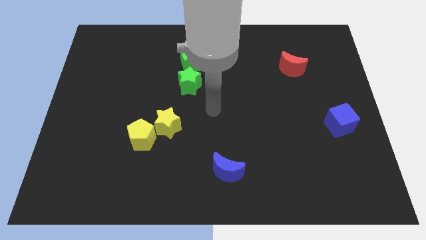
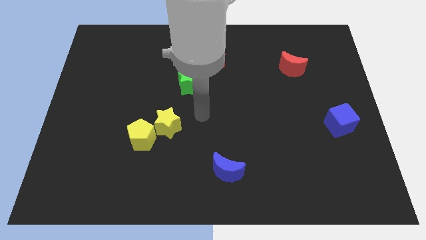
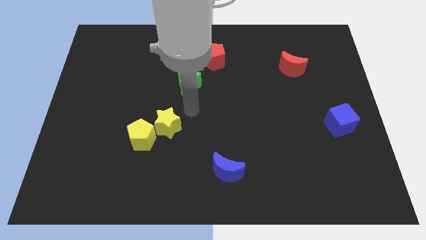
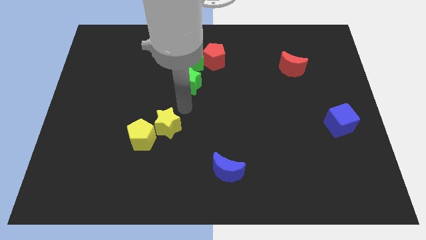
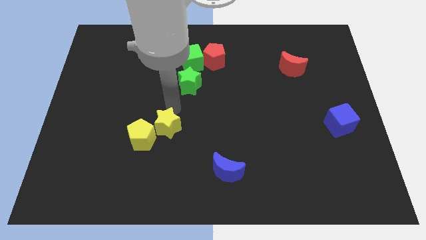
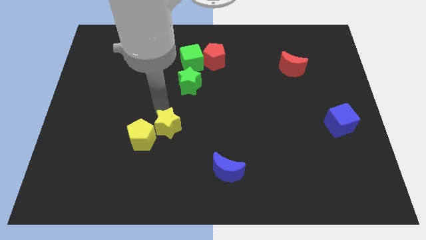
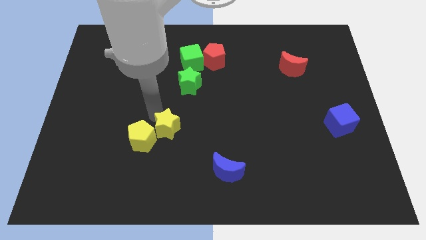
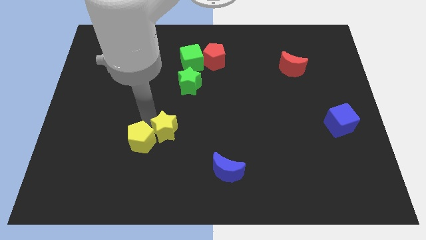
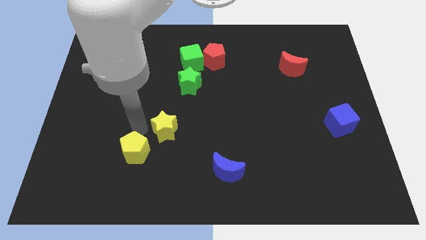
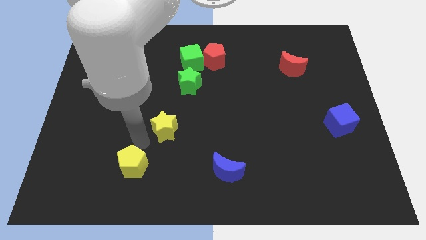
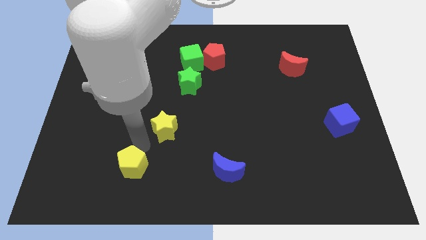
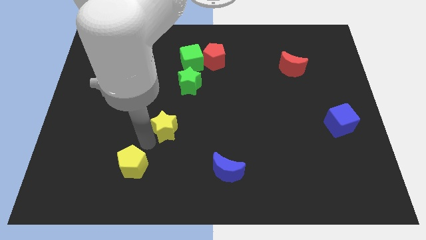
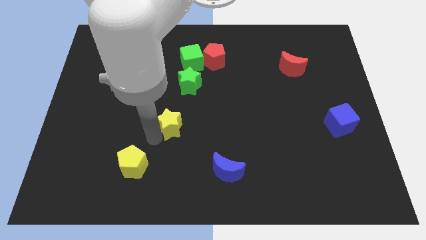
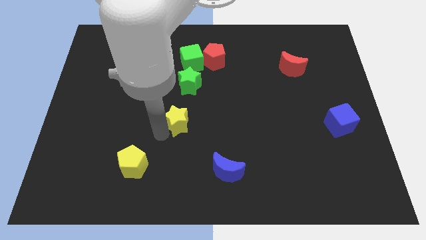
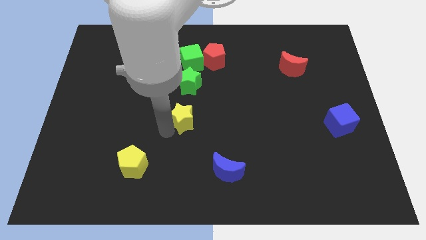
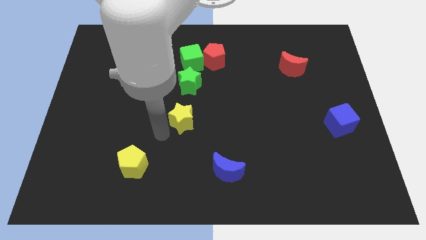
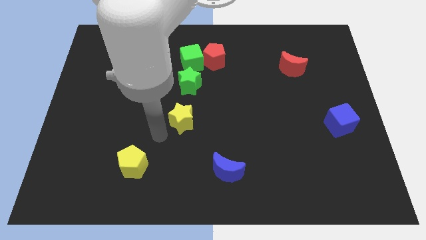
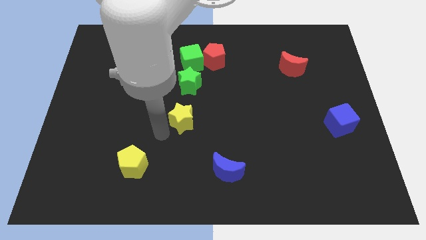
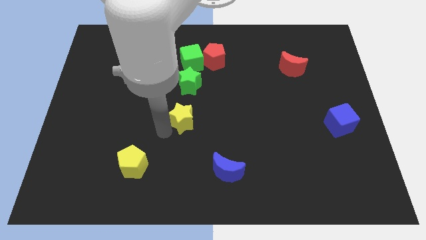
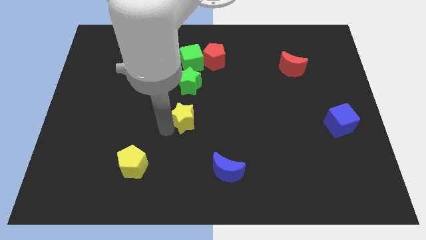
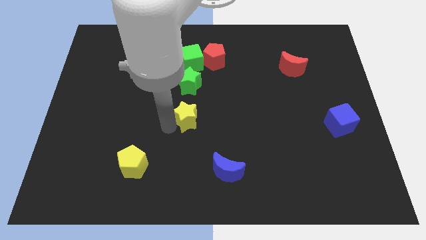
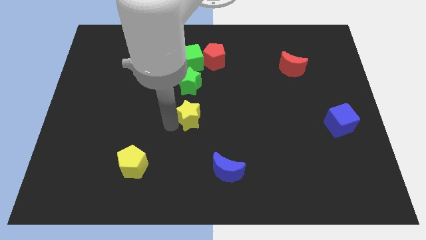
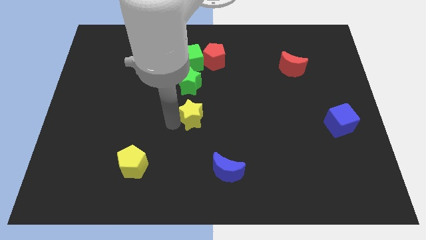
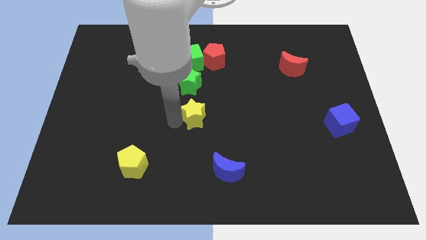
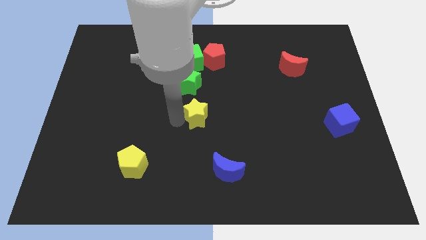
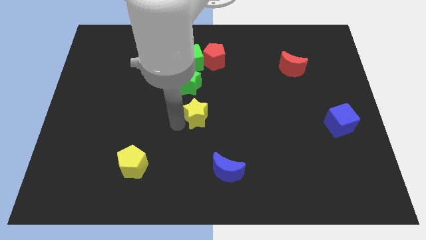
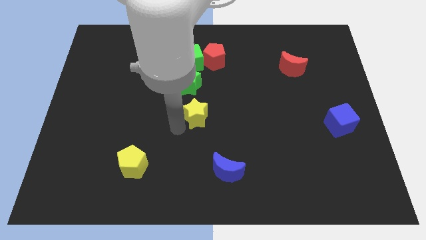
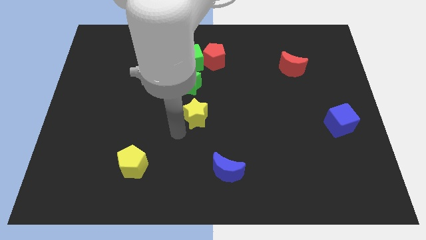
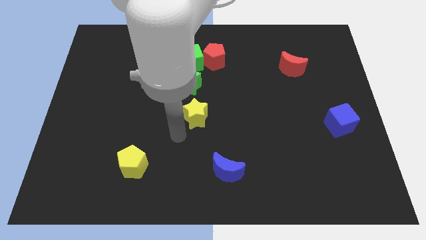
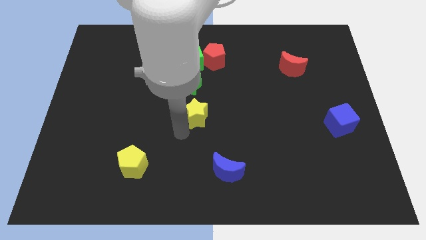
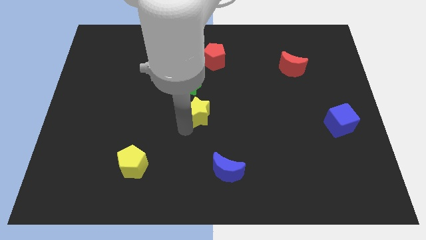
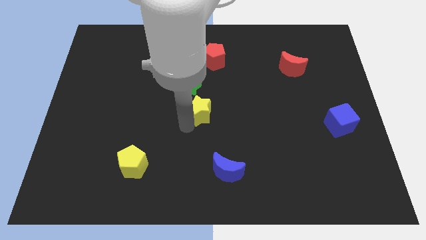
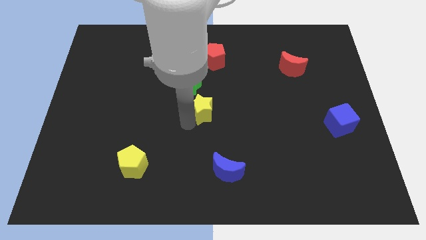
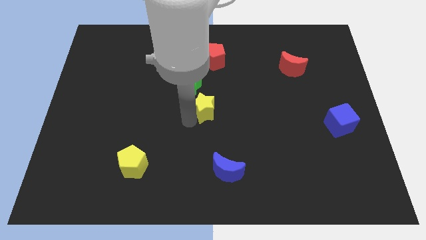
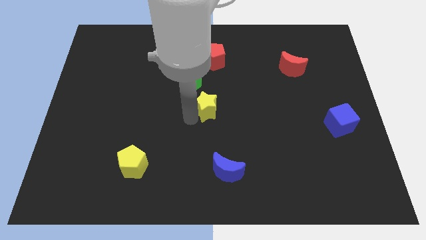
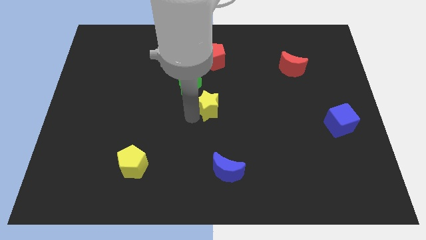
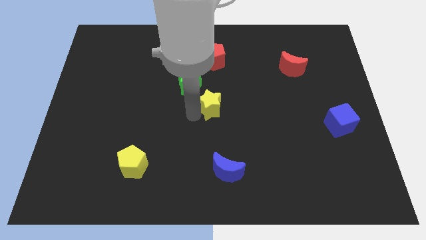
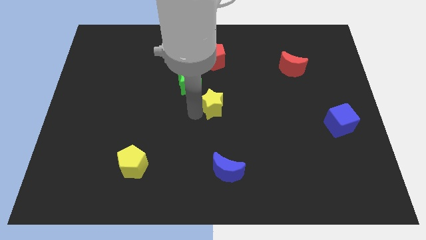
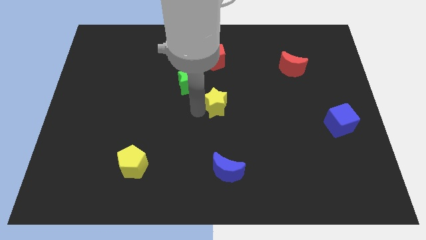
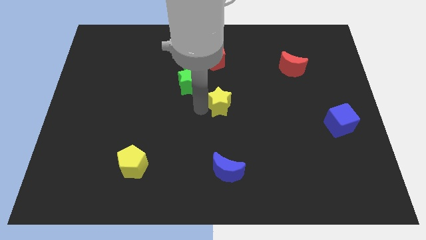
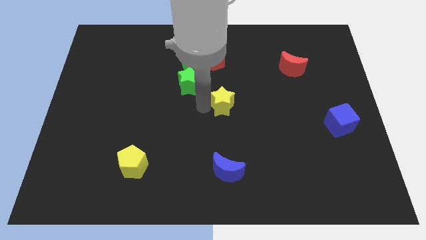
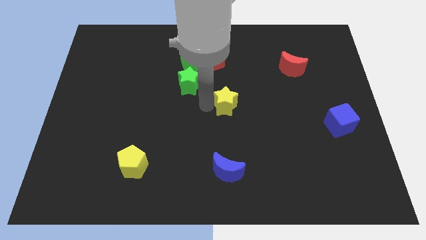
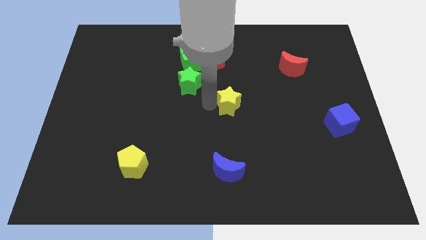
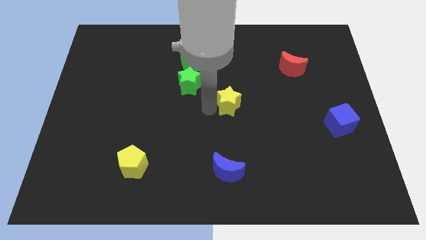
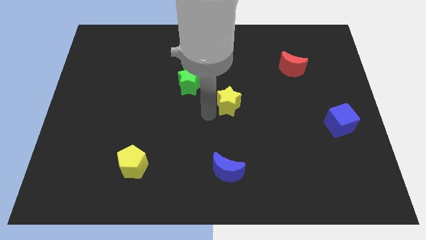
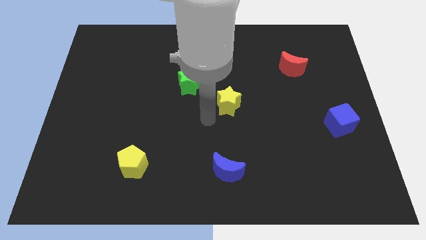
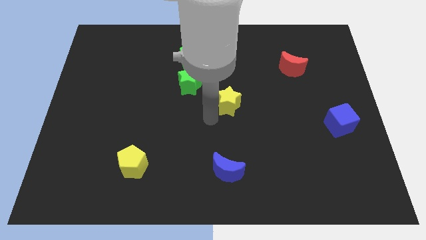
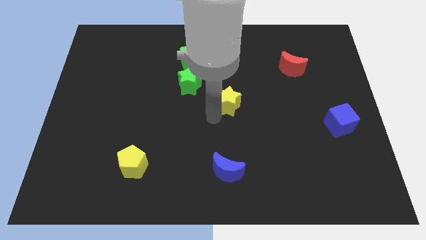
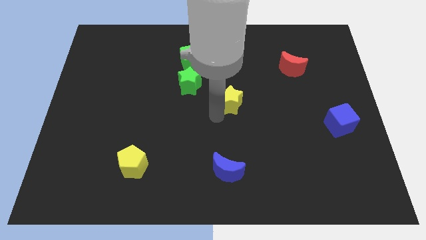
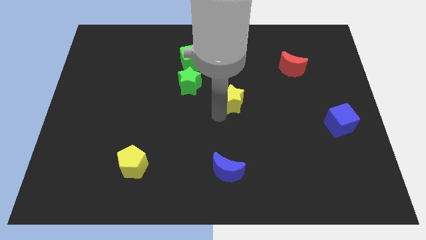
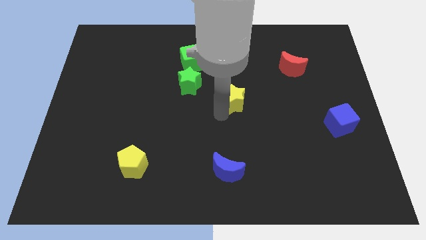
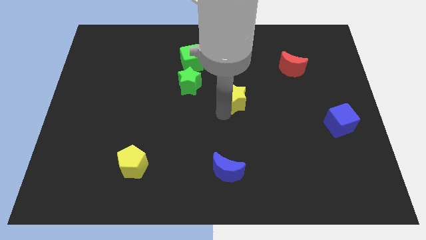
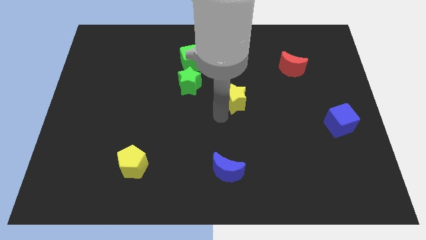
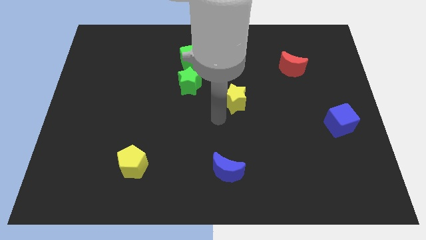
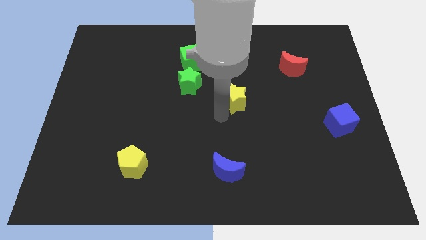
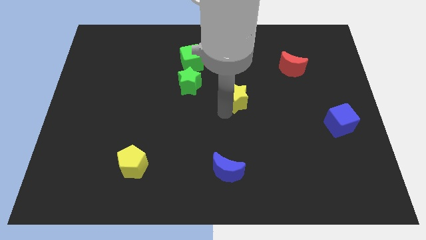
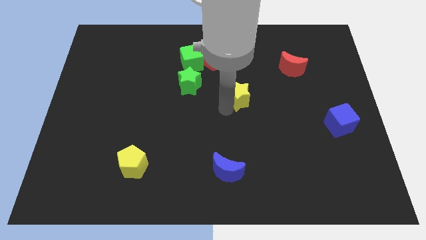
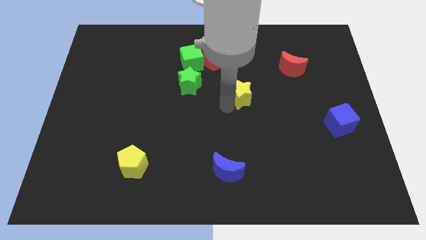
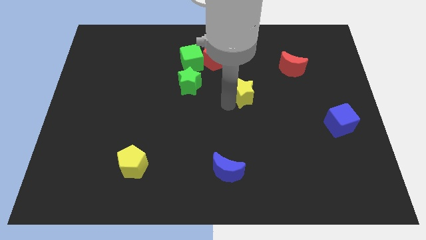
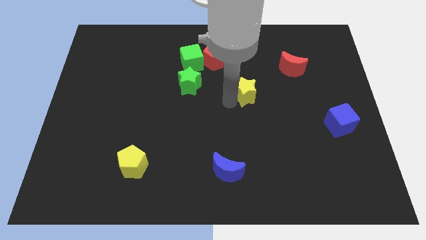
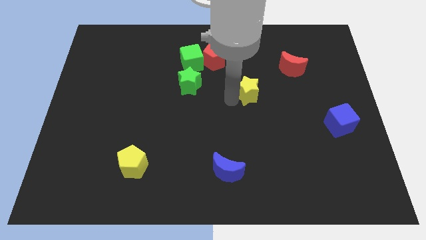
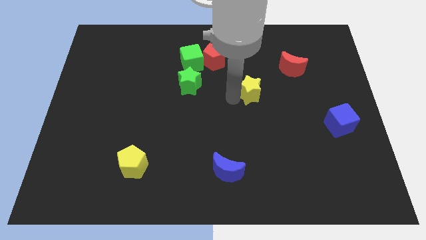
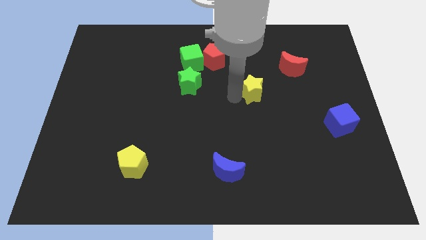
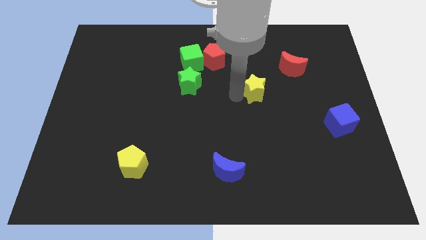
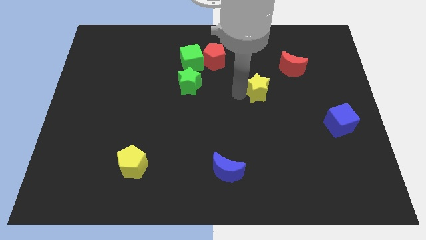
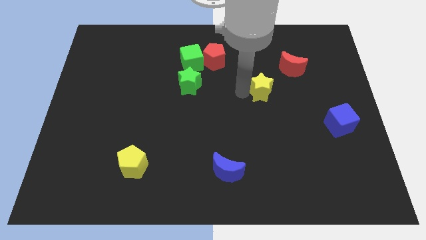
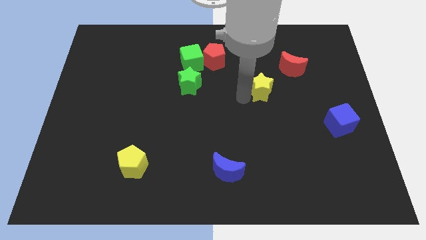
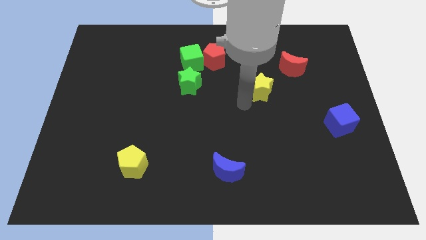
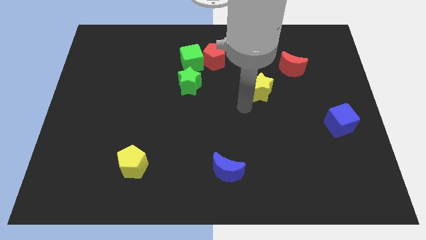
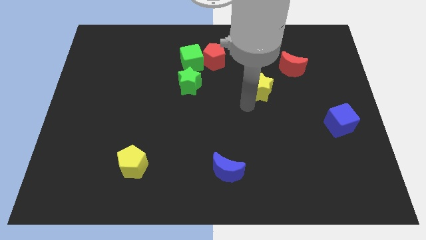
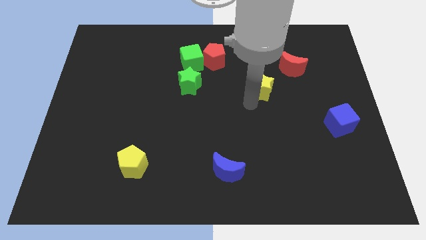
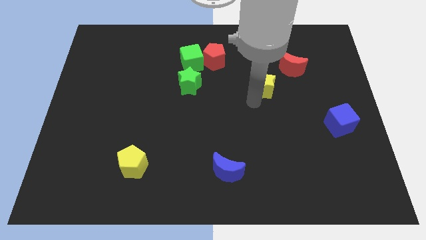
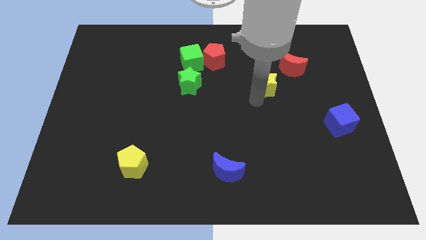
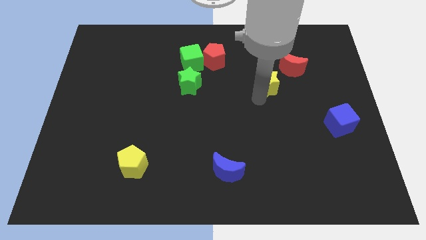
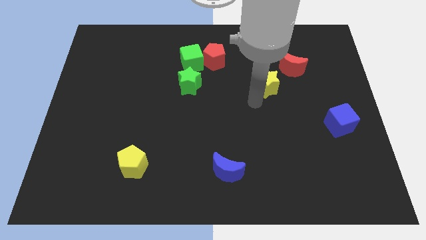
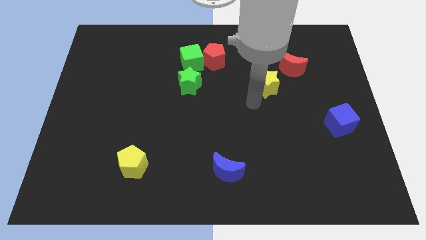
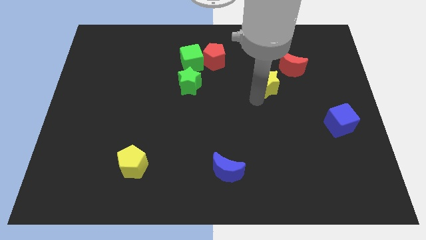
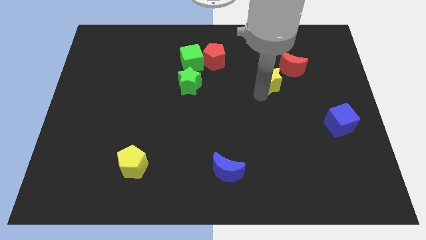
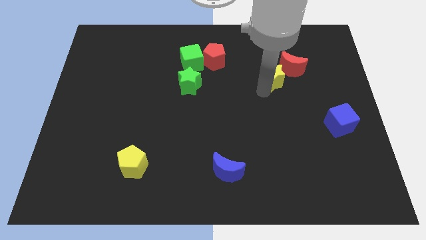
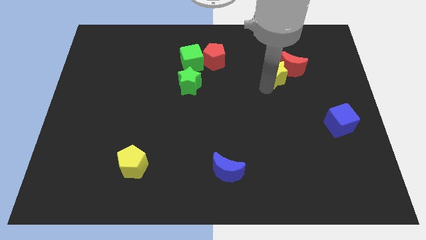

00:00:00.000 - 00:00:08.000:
move the yellow star to the red moon
